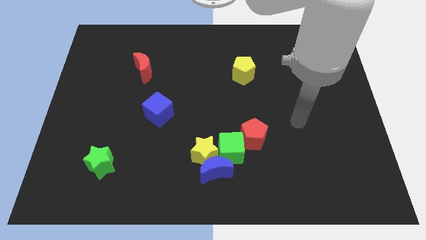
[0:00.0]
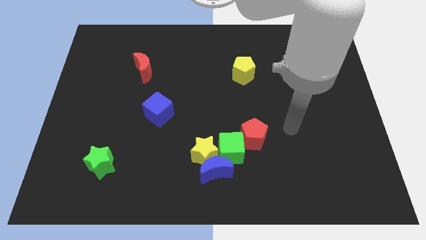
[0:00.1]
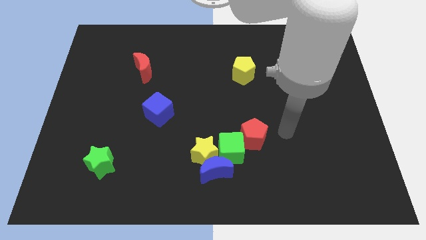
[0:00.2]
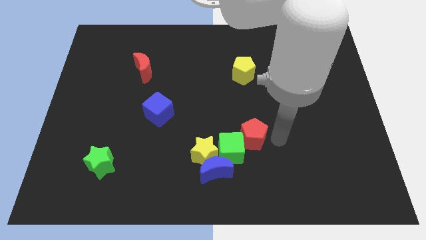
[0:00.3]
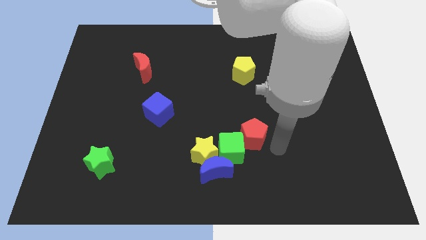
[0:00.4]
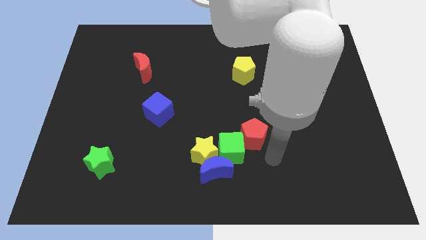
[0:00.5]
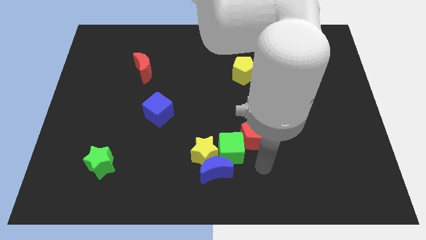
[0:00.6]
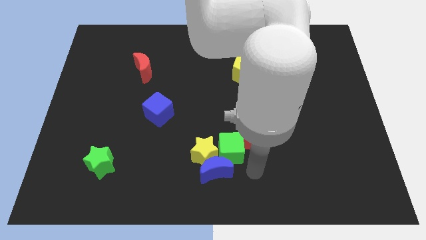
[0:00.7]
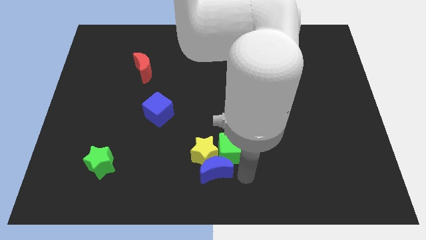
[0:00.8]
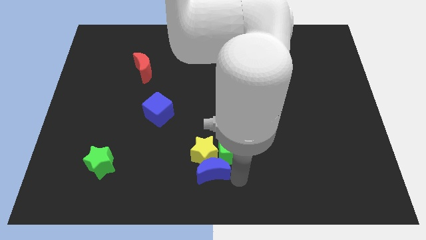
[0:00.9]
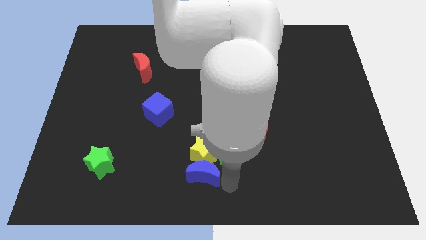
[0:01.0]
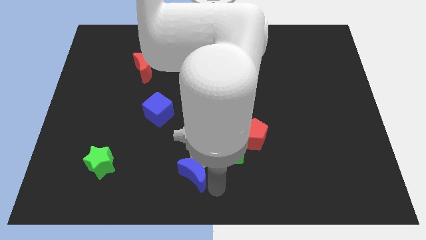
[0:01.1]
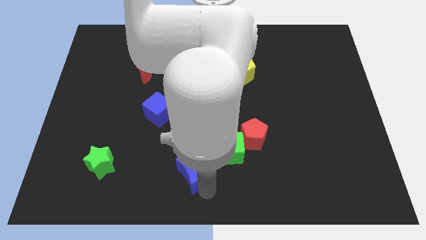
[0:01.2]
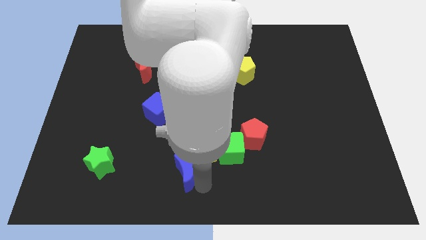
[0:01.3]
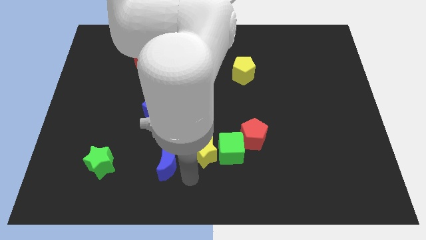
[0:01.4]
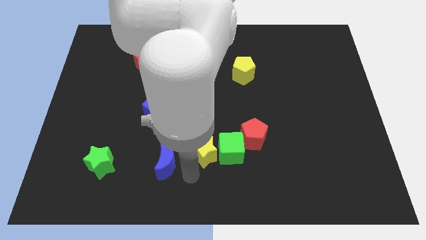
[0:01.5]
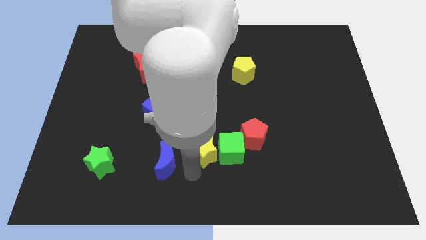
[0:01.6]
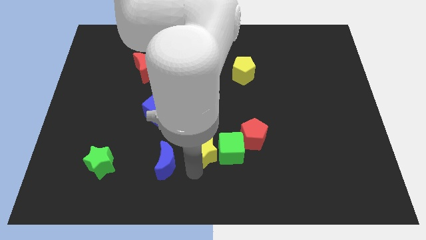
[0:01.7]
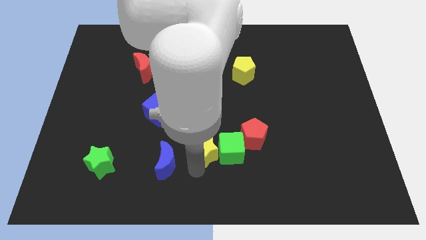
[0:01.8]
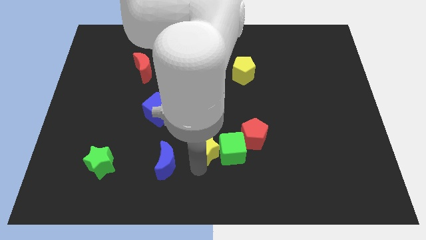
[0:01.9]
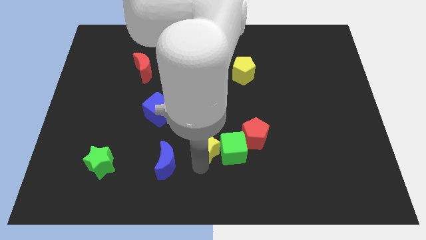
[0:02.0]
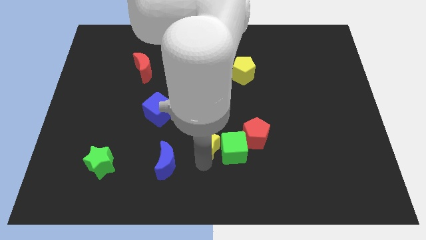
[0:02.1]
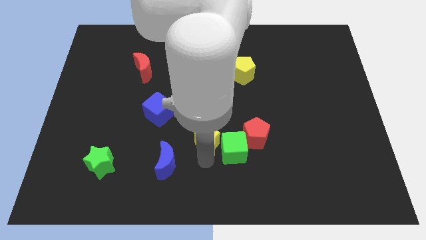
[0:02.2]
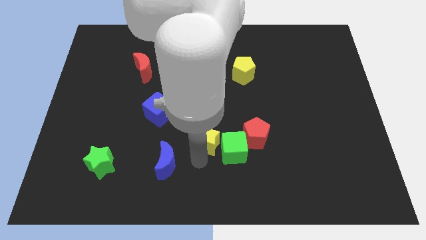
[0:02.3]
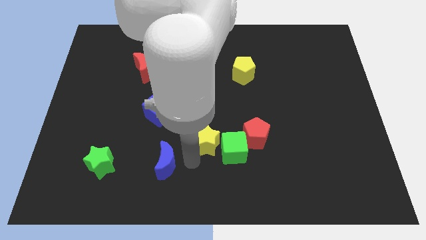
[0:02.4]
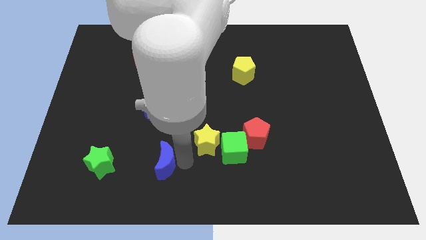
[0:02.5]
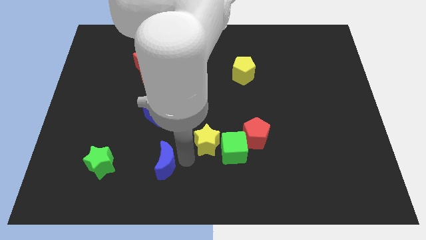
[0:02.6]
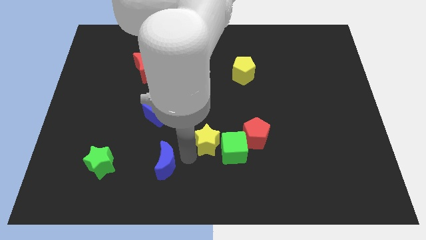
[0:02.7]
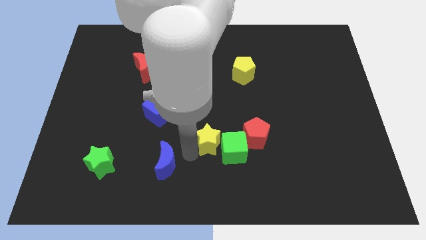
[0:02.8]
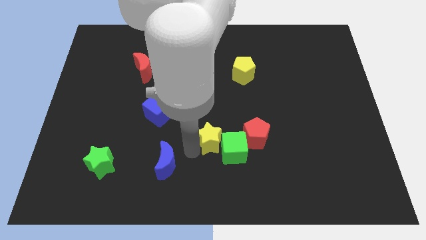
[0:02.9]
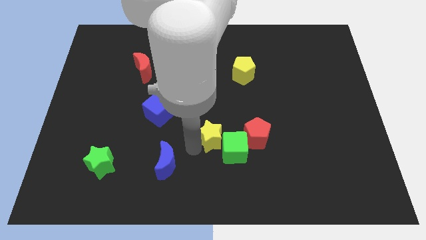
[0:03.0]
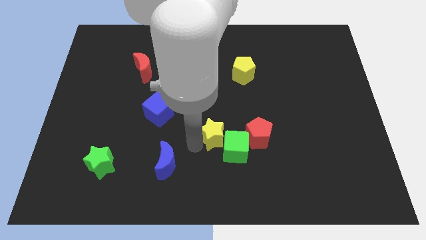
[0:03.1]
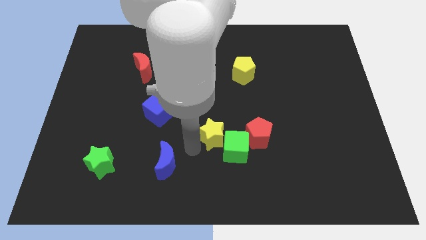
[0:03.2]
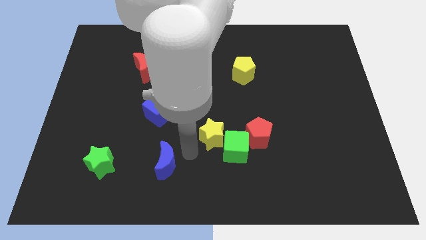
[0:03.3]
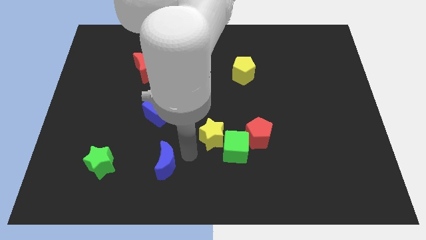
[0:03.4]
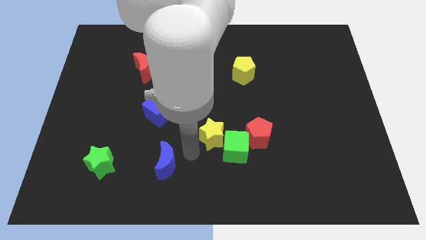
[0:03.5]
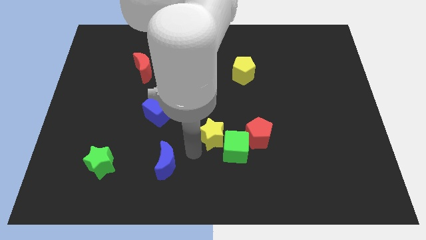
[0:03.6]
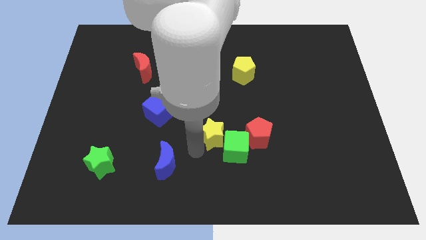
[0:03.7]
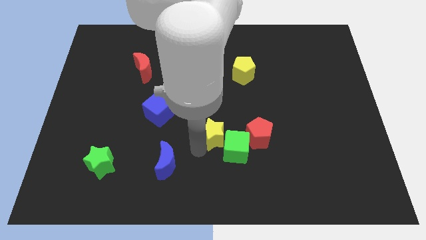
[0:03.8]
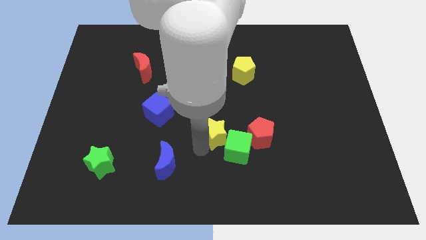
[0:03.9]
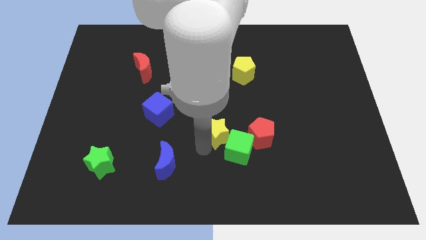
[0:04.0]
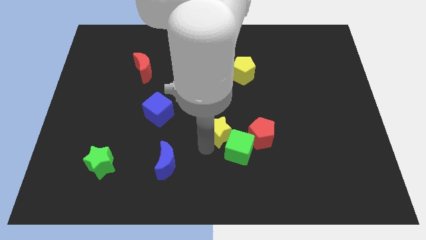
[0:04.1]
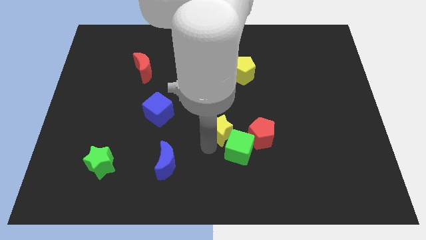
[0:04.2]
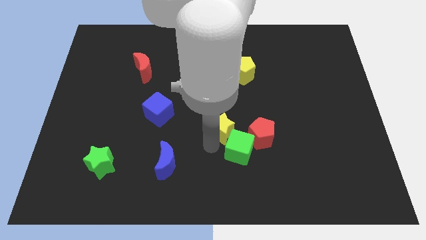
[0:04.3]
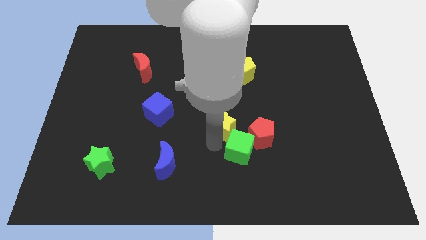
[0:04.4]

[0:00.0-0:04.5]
slightly push the yellow star up and right diagonally

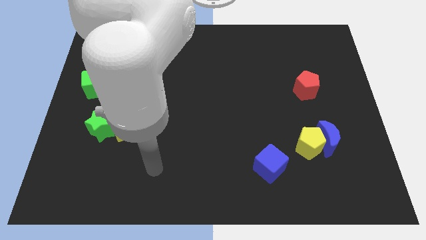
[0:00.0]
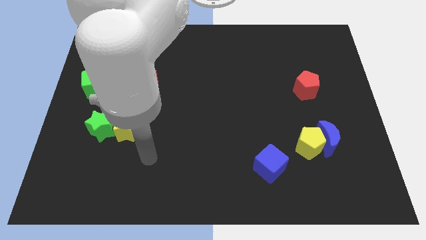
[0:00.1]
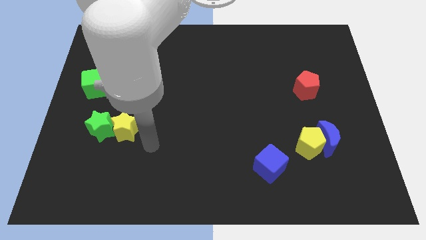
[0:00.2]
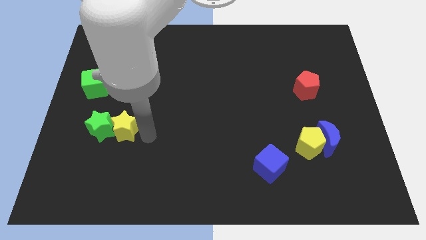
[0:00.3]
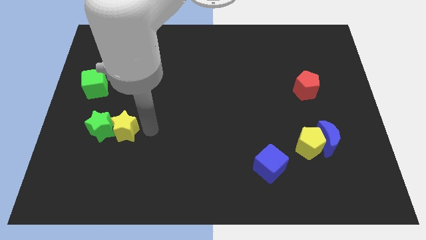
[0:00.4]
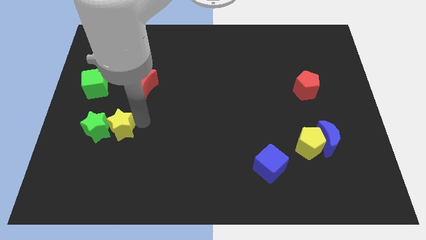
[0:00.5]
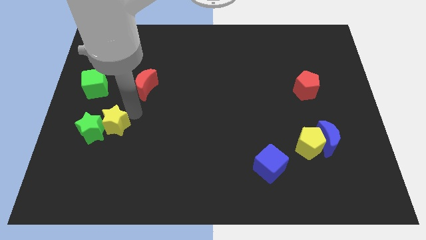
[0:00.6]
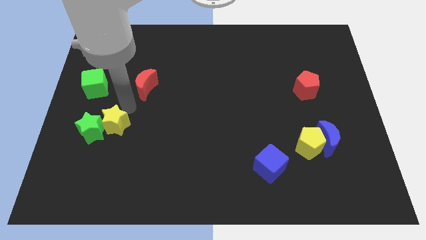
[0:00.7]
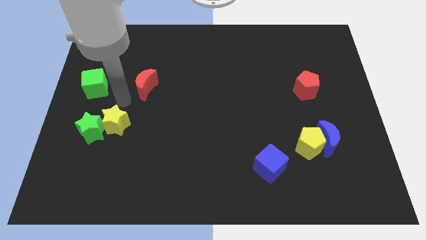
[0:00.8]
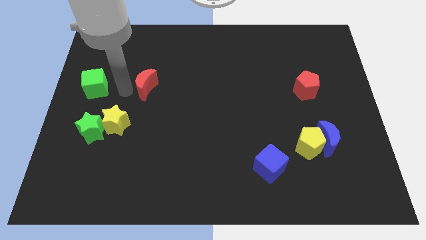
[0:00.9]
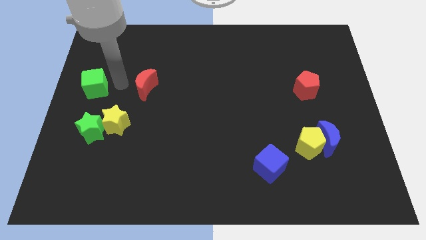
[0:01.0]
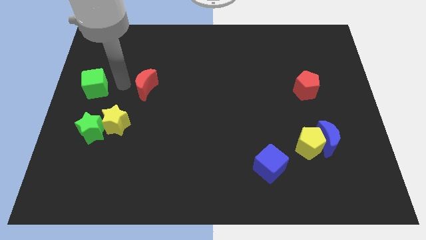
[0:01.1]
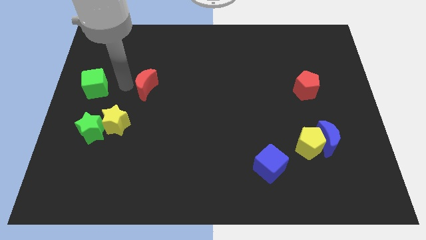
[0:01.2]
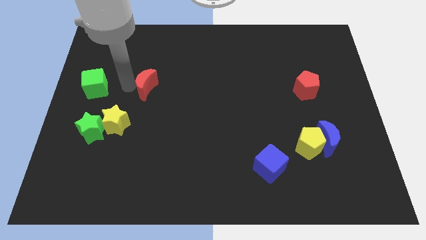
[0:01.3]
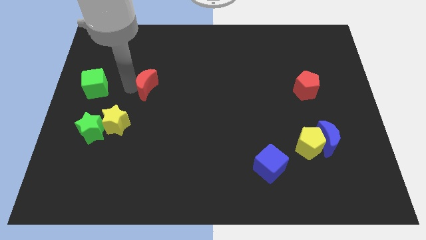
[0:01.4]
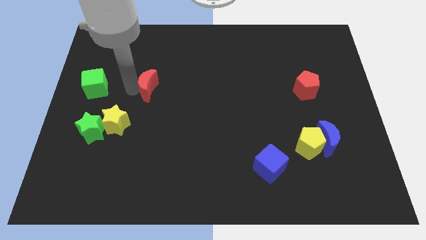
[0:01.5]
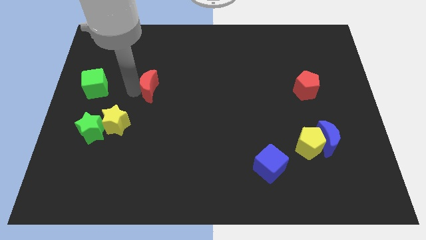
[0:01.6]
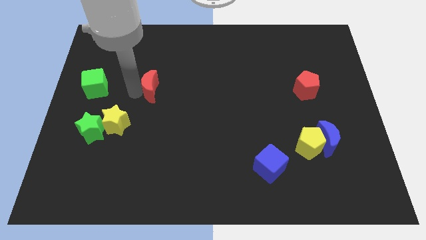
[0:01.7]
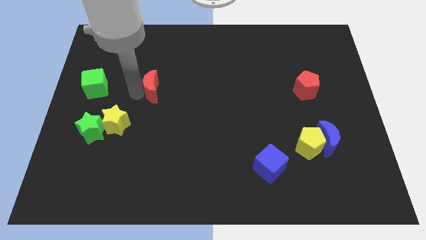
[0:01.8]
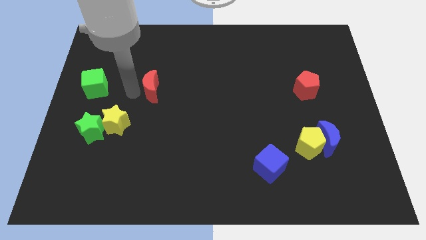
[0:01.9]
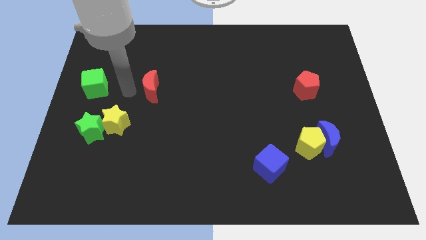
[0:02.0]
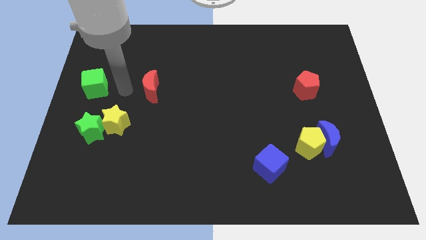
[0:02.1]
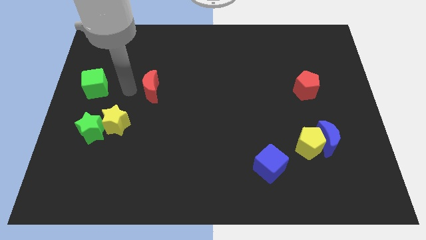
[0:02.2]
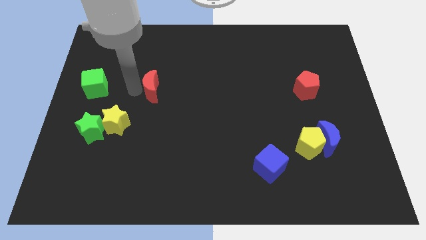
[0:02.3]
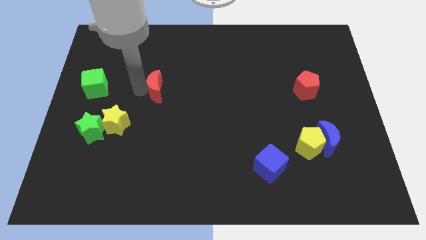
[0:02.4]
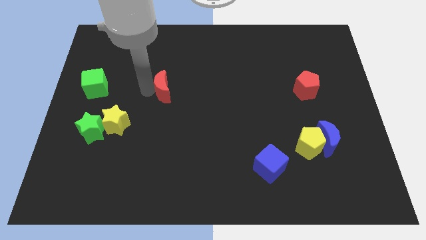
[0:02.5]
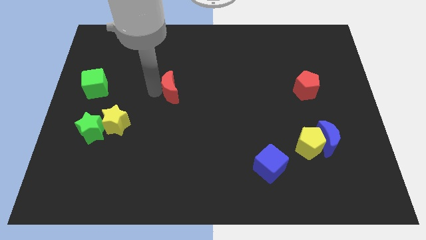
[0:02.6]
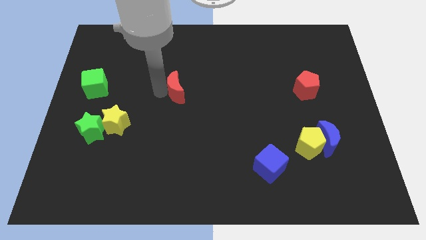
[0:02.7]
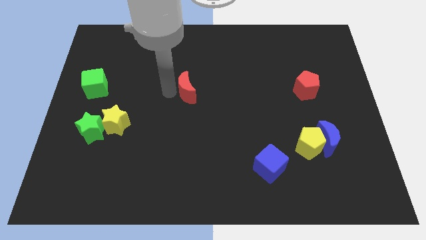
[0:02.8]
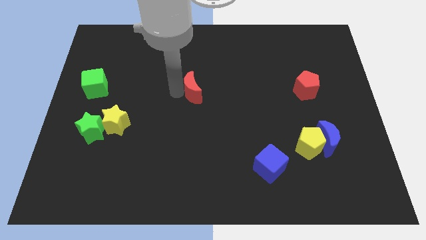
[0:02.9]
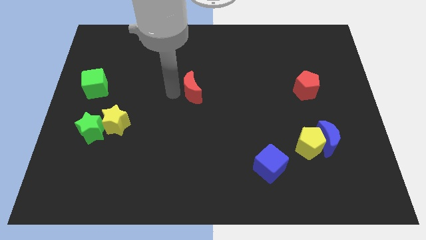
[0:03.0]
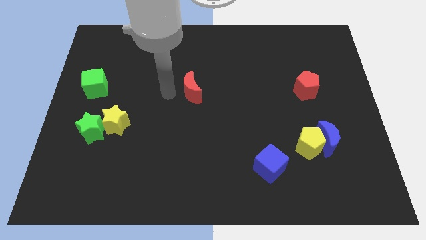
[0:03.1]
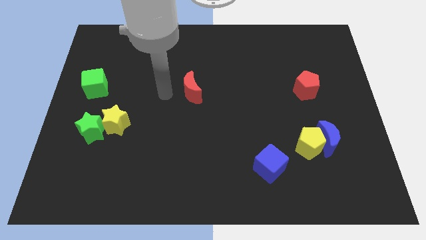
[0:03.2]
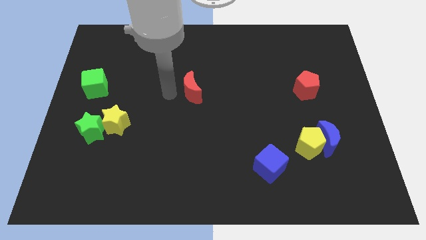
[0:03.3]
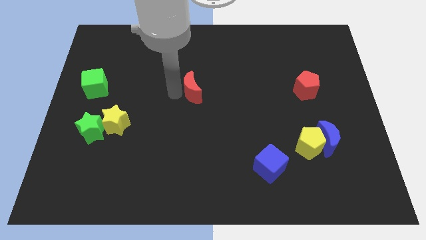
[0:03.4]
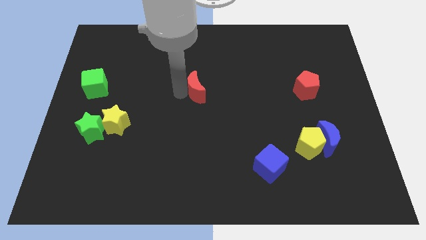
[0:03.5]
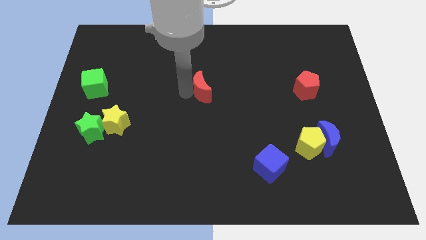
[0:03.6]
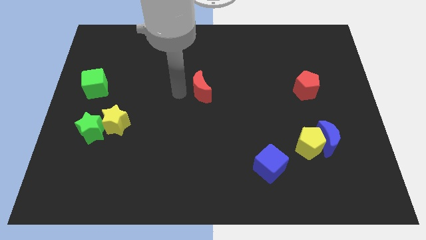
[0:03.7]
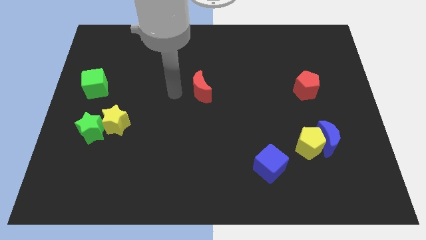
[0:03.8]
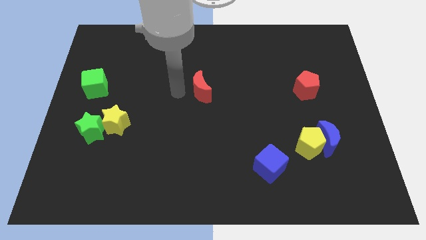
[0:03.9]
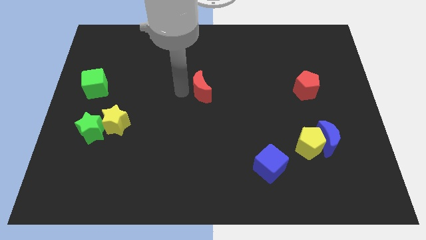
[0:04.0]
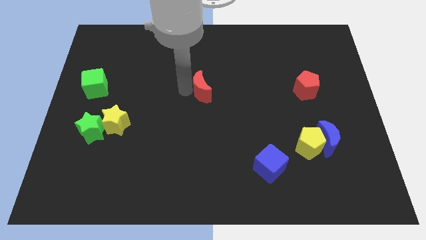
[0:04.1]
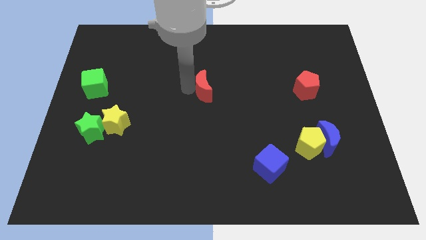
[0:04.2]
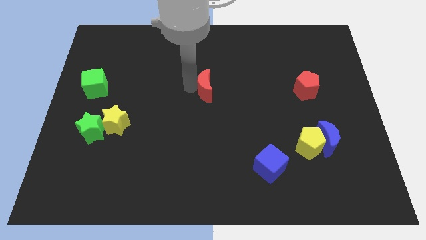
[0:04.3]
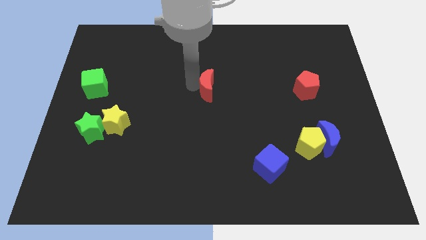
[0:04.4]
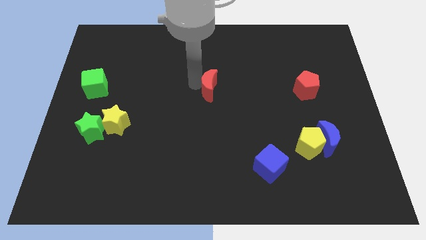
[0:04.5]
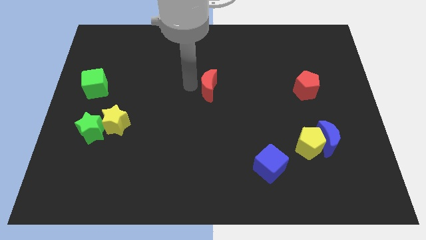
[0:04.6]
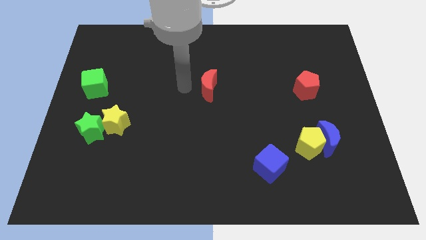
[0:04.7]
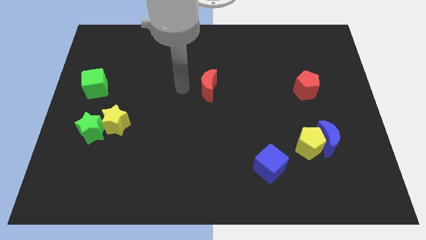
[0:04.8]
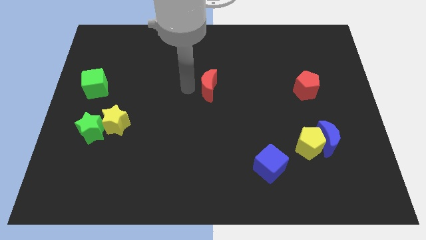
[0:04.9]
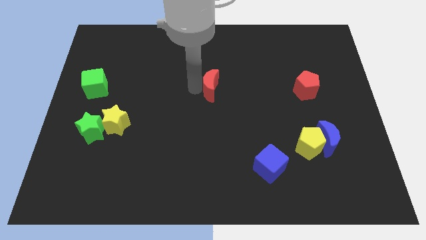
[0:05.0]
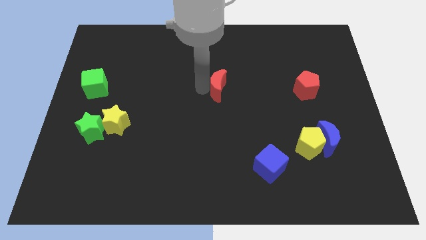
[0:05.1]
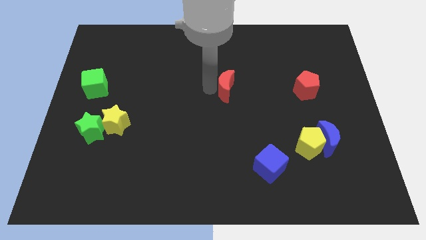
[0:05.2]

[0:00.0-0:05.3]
move the red moon right
